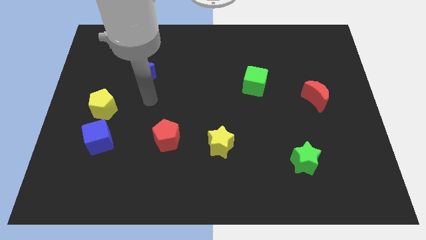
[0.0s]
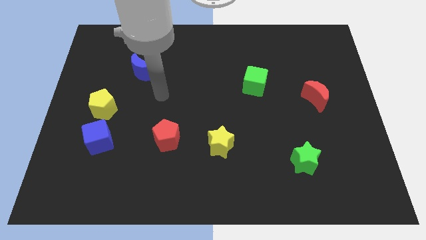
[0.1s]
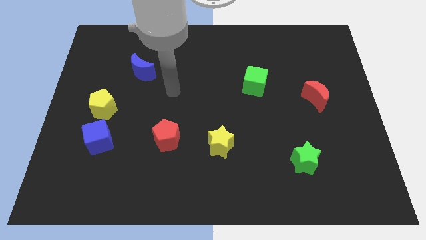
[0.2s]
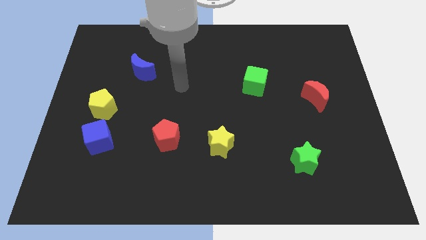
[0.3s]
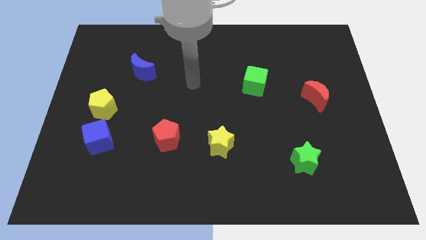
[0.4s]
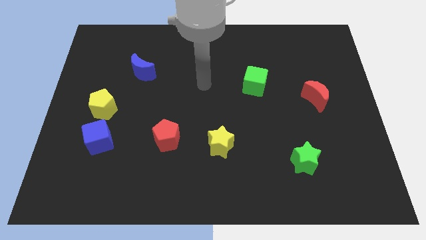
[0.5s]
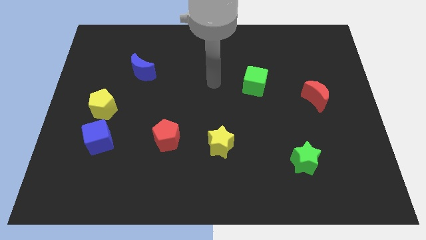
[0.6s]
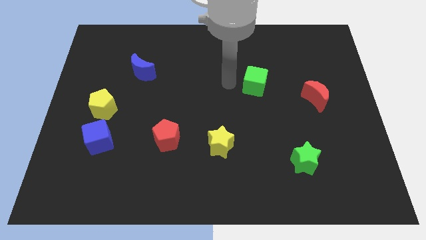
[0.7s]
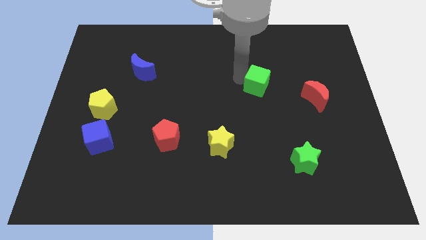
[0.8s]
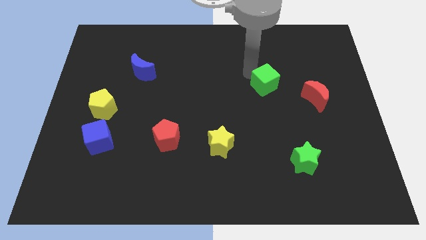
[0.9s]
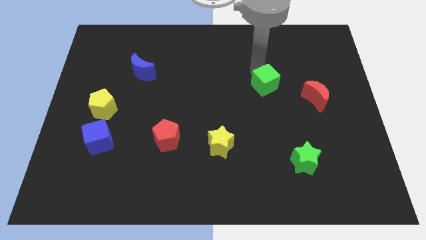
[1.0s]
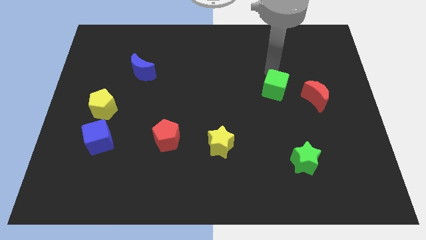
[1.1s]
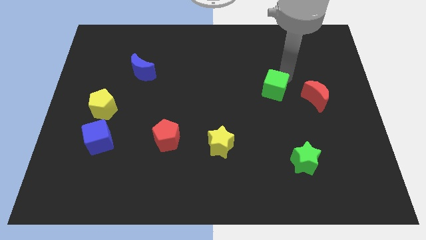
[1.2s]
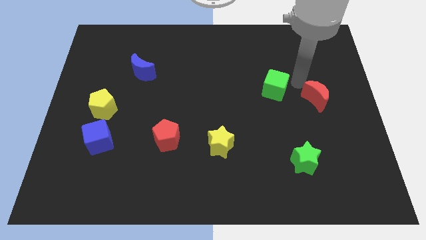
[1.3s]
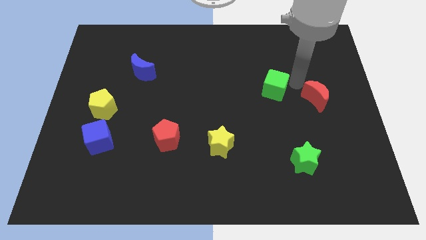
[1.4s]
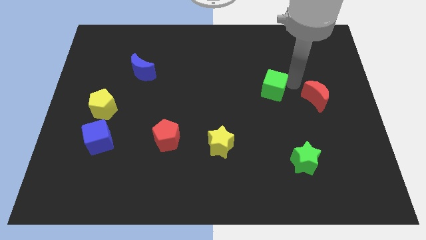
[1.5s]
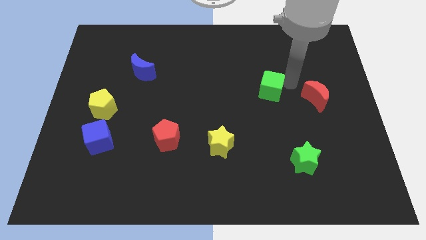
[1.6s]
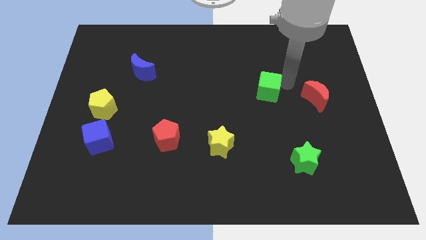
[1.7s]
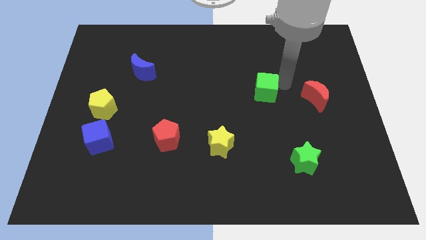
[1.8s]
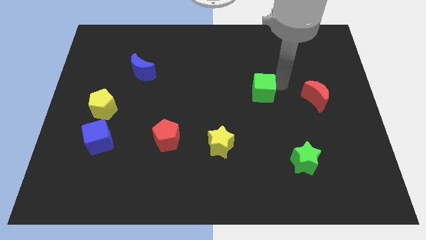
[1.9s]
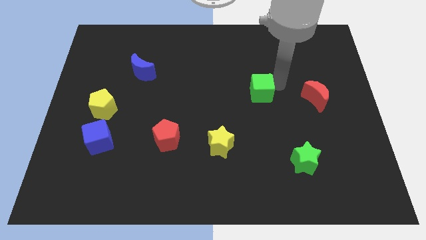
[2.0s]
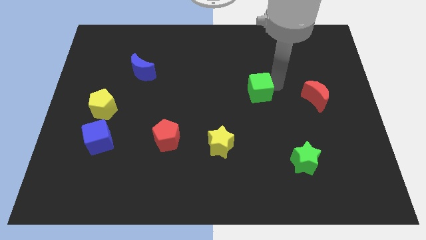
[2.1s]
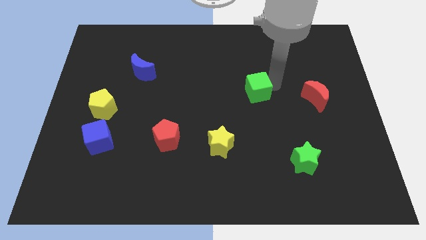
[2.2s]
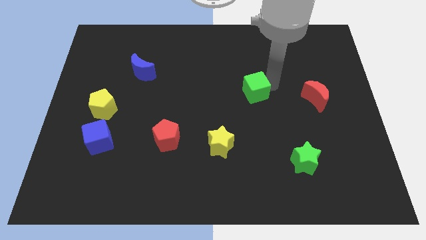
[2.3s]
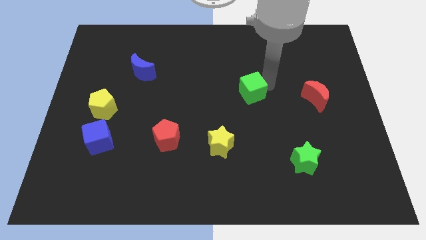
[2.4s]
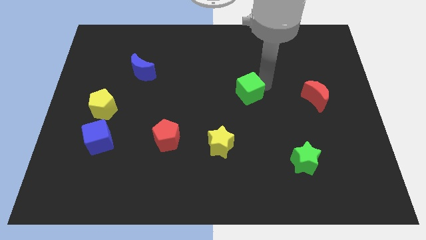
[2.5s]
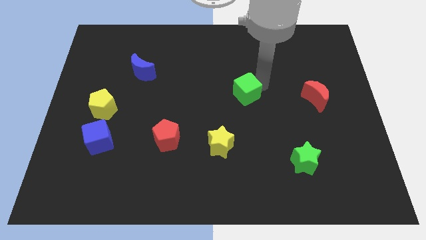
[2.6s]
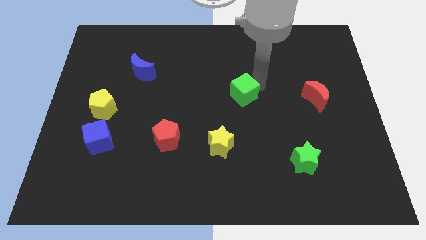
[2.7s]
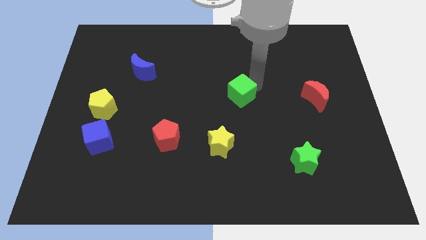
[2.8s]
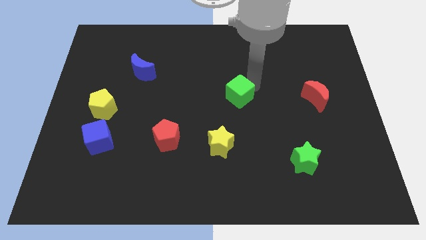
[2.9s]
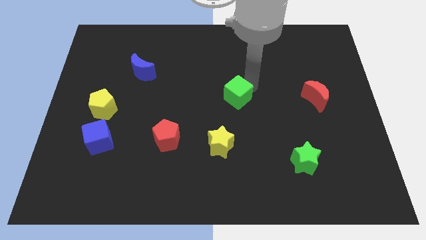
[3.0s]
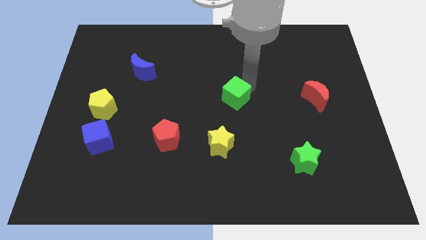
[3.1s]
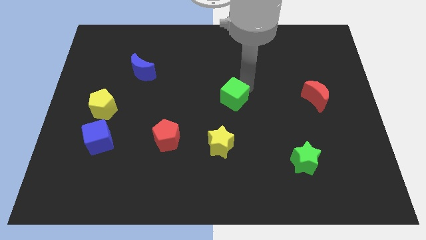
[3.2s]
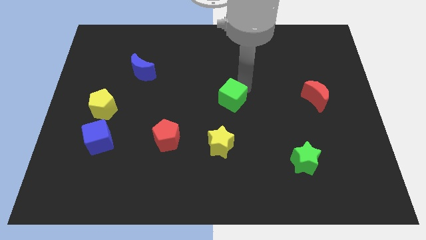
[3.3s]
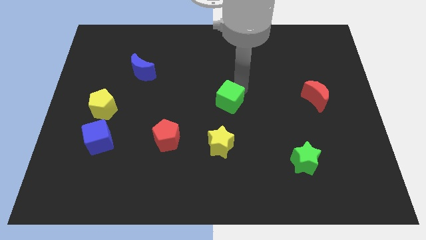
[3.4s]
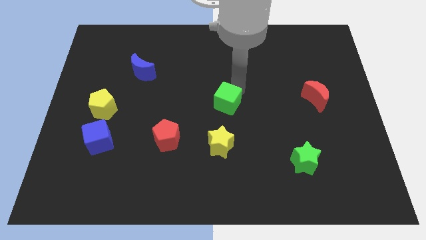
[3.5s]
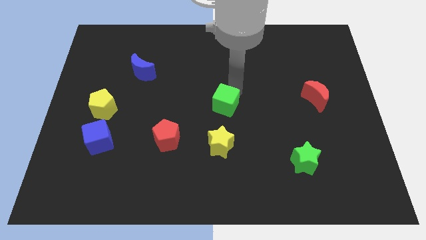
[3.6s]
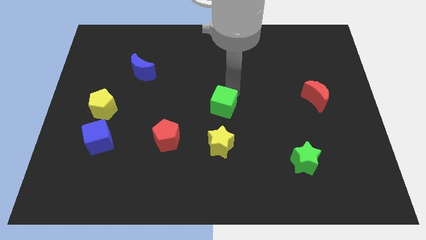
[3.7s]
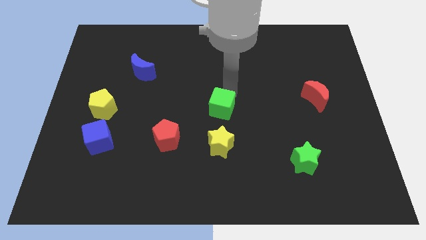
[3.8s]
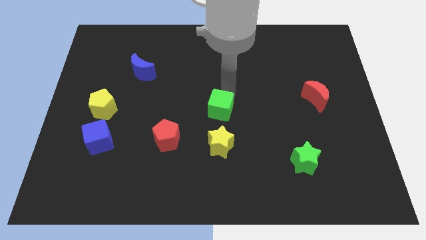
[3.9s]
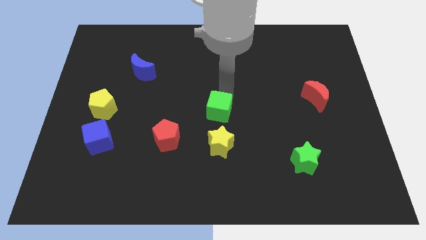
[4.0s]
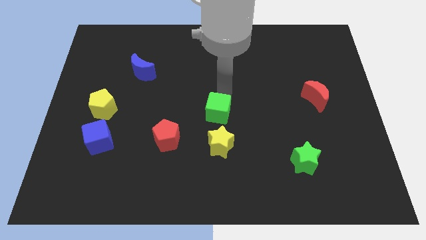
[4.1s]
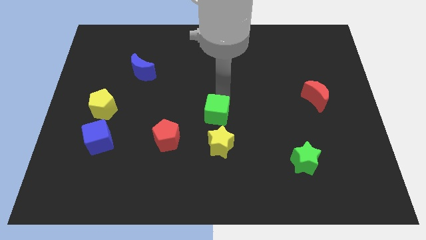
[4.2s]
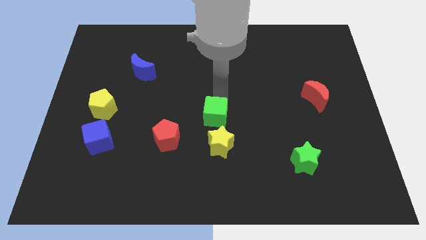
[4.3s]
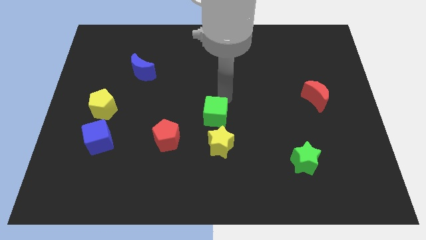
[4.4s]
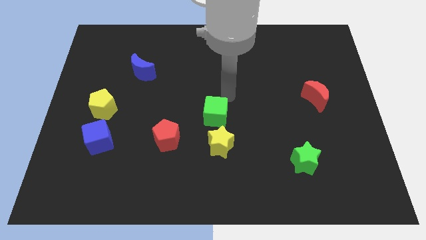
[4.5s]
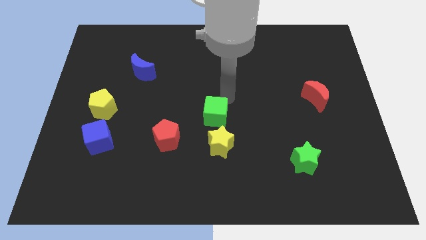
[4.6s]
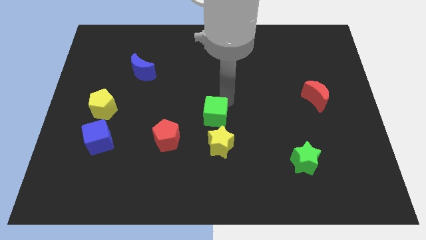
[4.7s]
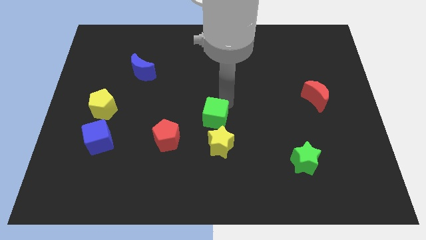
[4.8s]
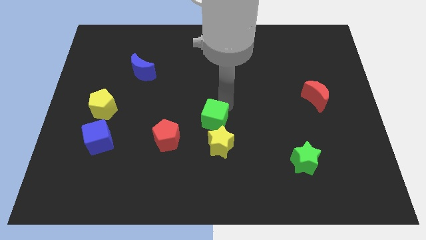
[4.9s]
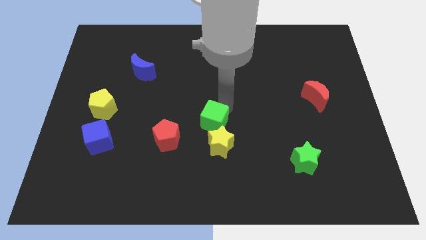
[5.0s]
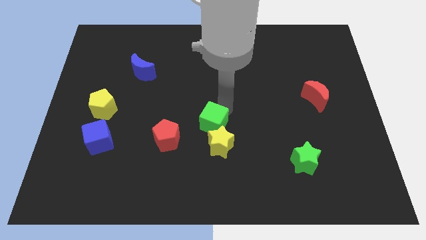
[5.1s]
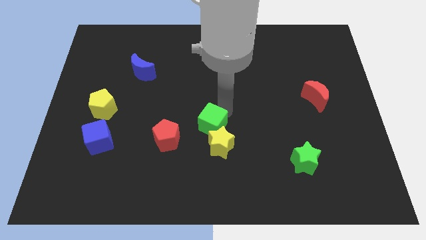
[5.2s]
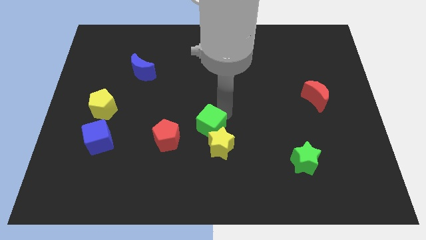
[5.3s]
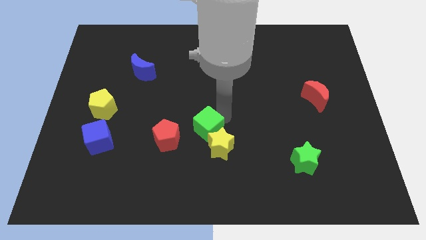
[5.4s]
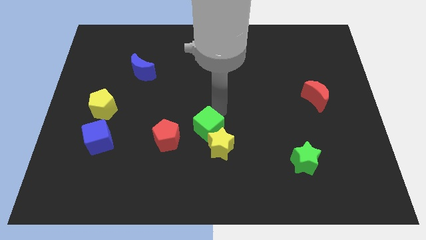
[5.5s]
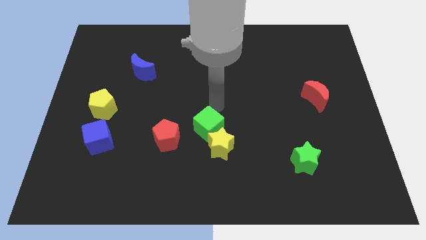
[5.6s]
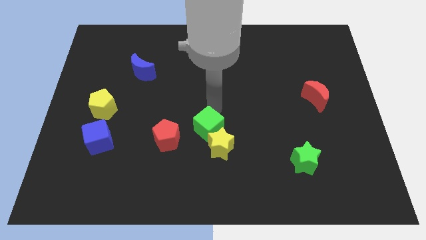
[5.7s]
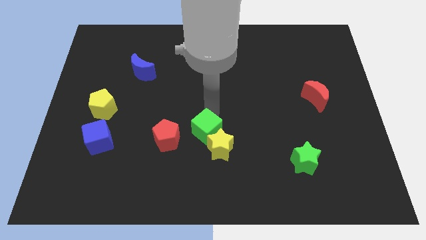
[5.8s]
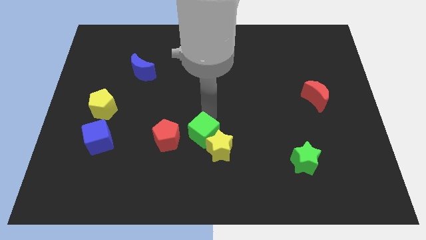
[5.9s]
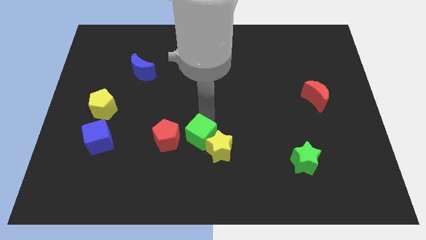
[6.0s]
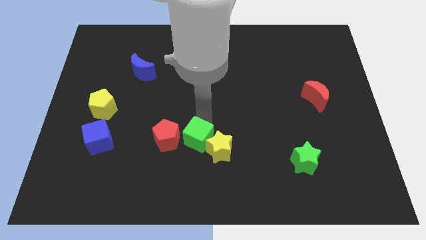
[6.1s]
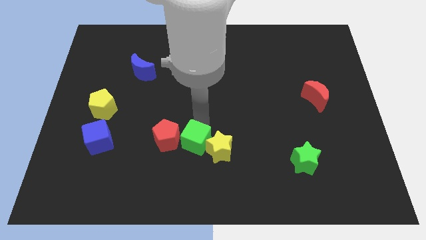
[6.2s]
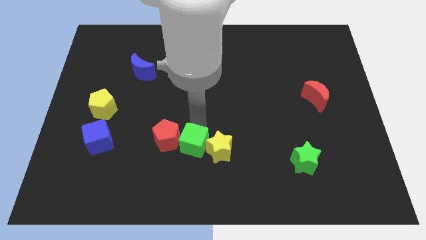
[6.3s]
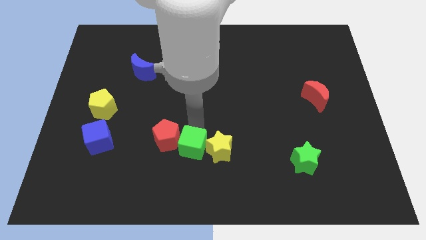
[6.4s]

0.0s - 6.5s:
slide the green cube to the bottom left side of the yellow star

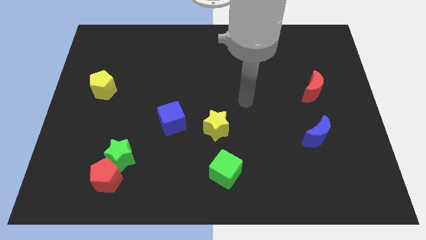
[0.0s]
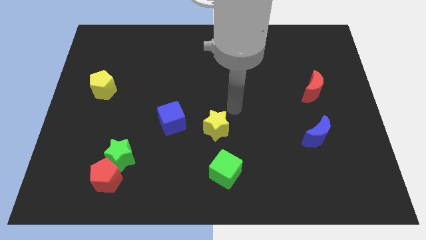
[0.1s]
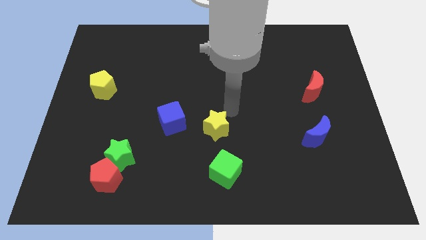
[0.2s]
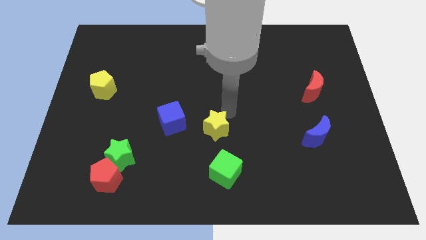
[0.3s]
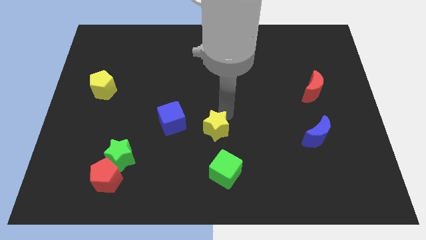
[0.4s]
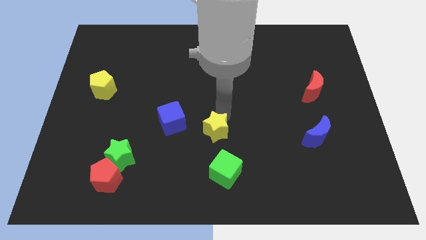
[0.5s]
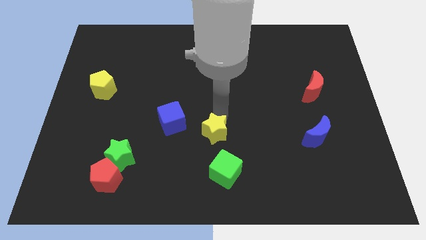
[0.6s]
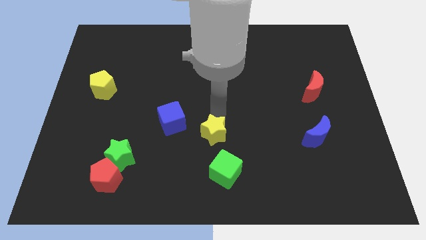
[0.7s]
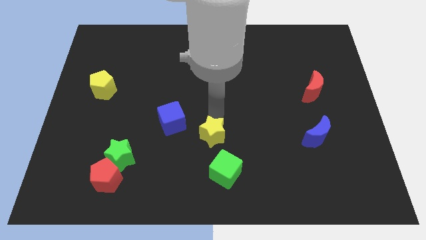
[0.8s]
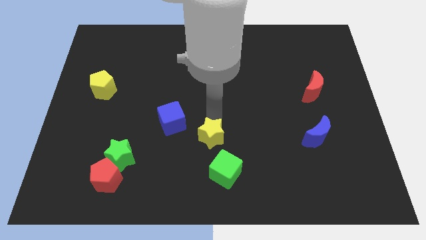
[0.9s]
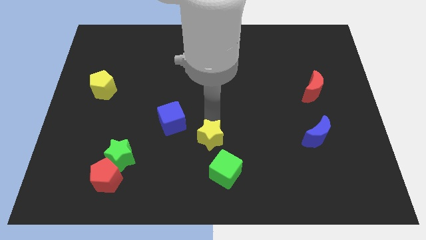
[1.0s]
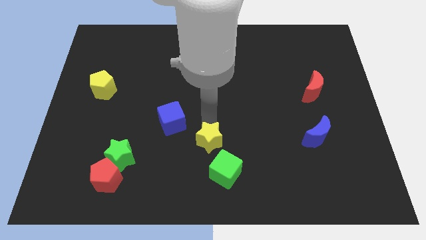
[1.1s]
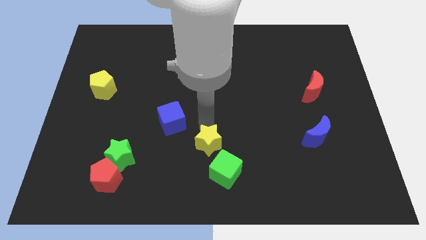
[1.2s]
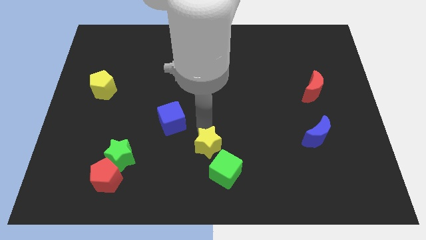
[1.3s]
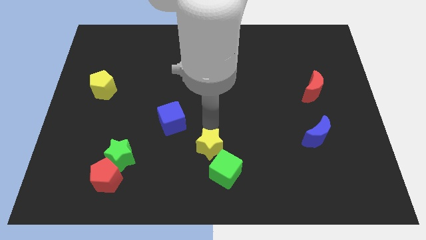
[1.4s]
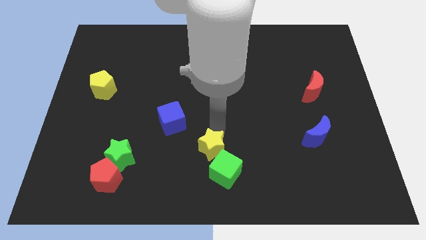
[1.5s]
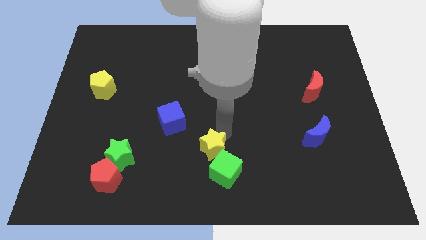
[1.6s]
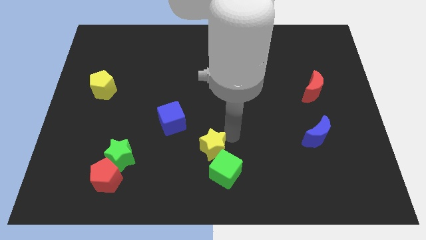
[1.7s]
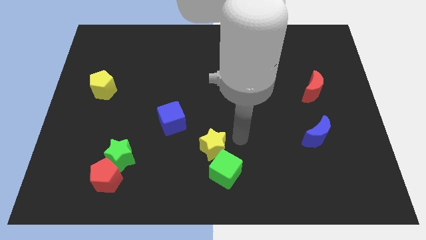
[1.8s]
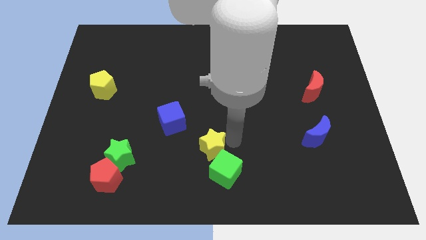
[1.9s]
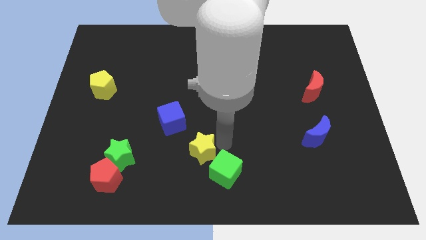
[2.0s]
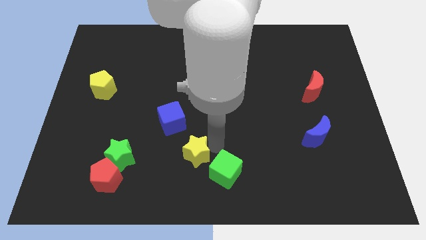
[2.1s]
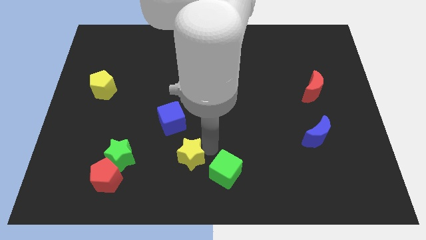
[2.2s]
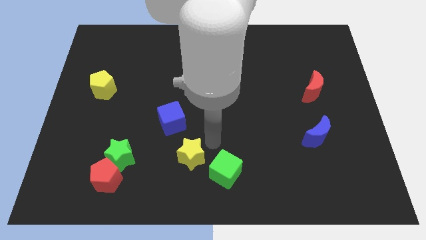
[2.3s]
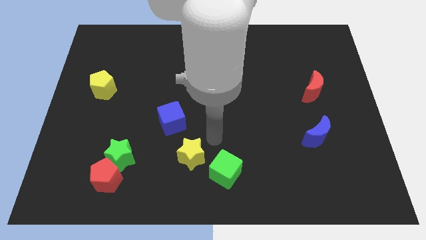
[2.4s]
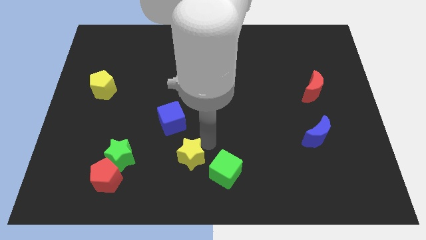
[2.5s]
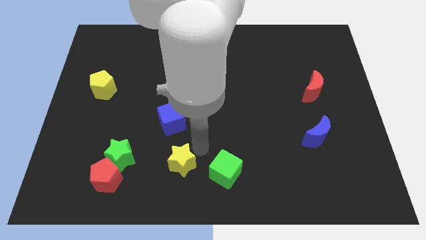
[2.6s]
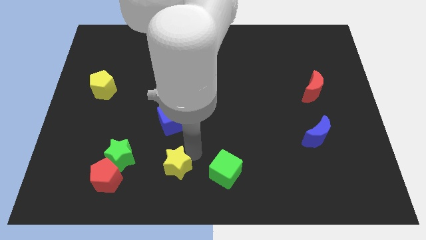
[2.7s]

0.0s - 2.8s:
slide the yellow star right of the red pentagon
